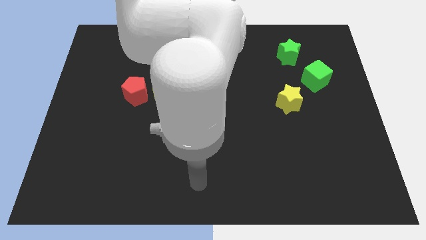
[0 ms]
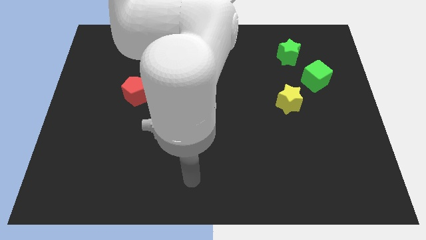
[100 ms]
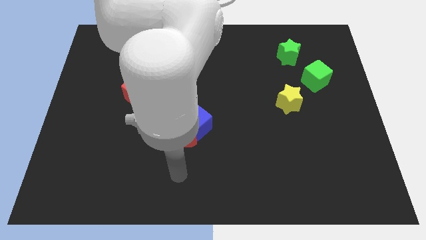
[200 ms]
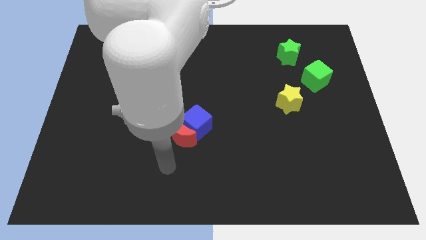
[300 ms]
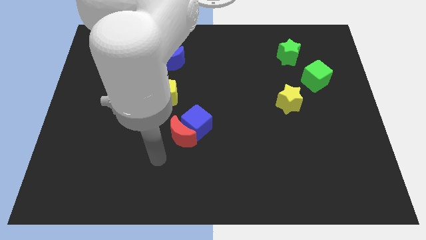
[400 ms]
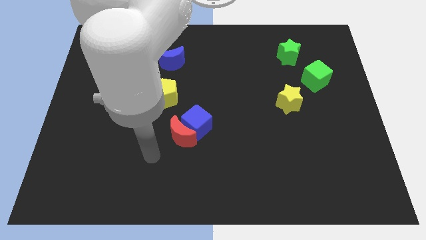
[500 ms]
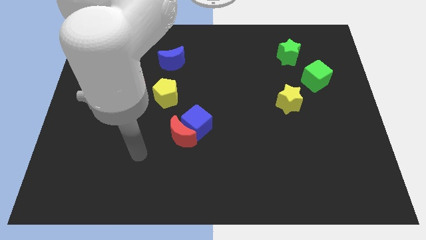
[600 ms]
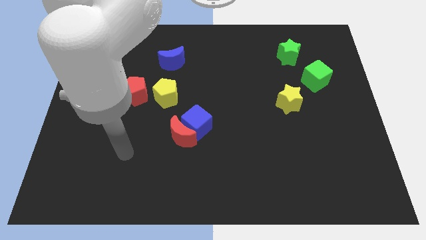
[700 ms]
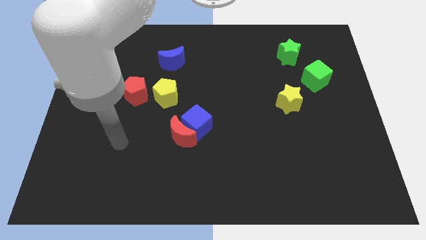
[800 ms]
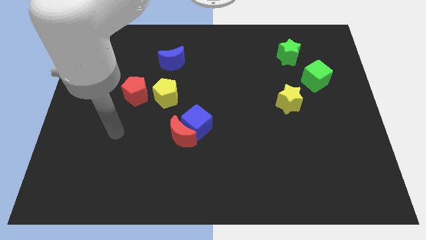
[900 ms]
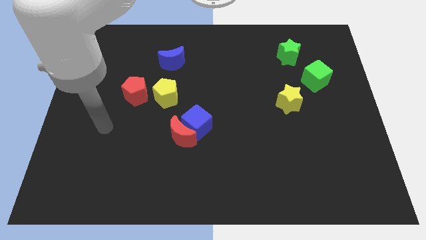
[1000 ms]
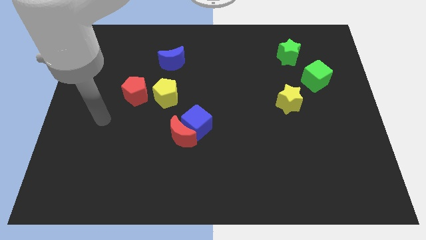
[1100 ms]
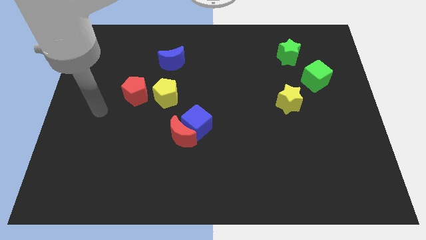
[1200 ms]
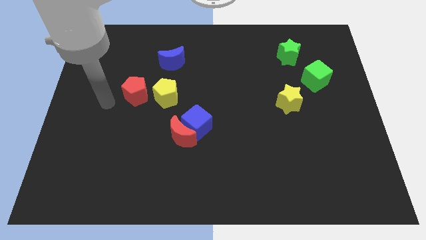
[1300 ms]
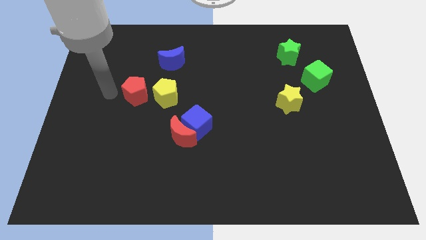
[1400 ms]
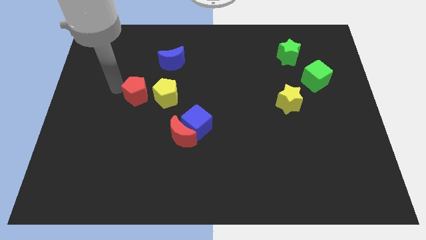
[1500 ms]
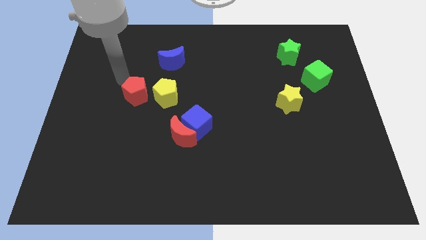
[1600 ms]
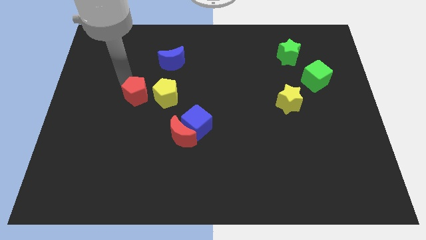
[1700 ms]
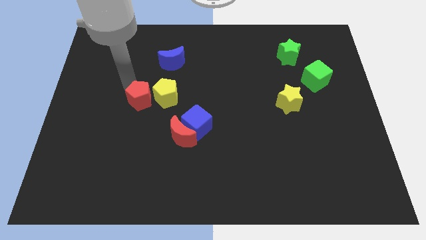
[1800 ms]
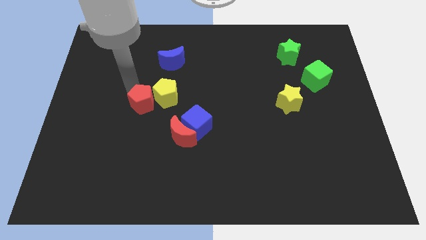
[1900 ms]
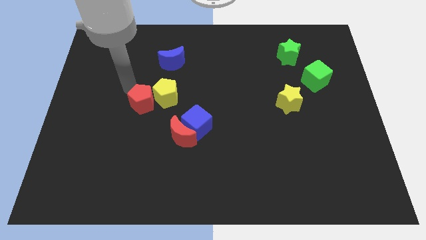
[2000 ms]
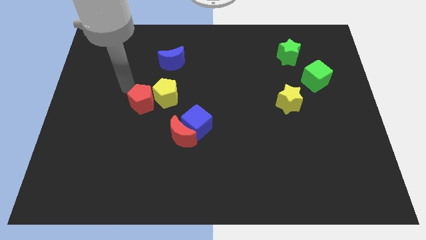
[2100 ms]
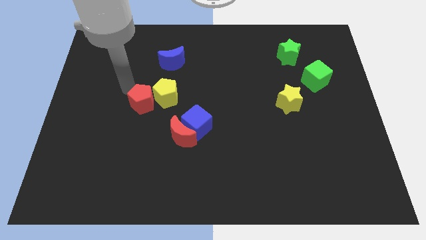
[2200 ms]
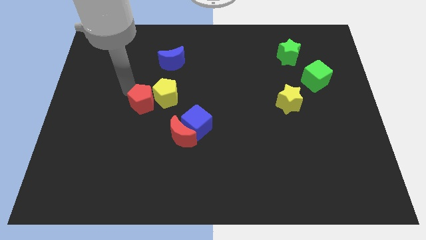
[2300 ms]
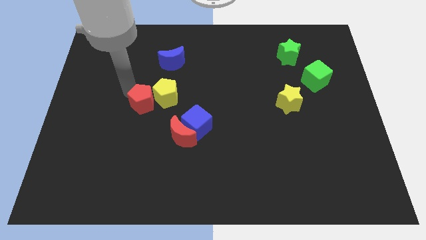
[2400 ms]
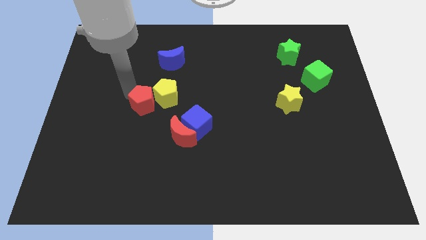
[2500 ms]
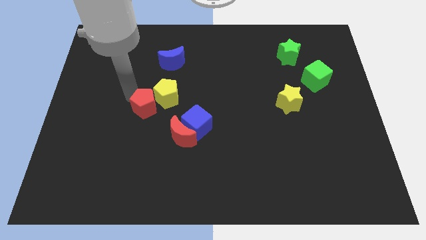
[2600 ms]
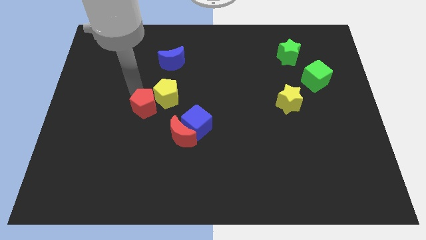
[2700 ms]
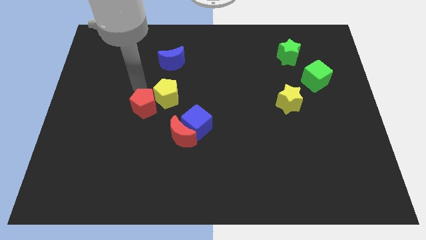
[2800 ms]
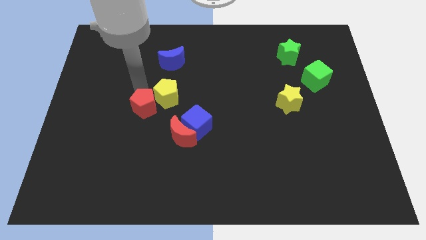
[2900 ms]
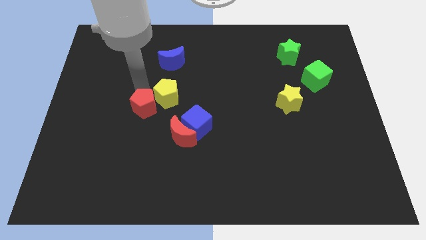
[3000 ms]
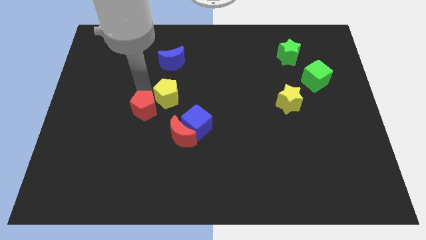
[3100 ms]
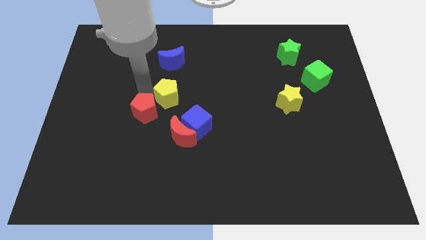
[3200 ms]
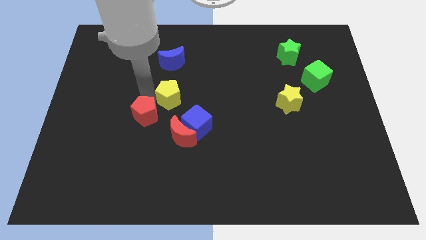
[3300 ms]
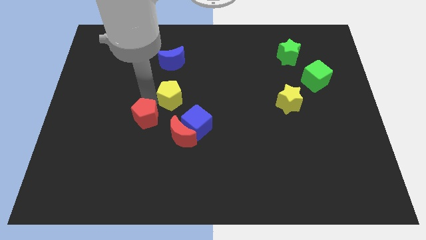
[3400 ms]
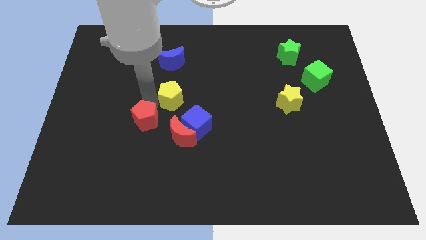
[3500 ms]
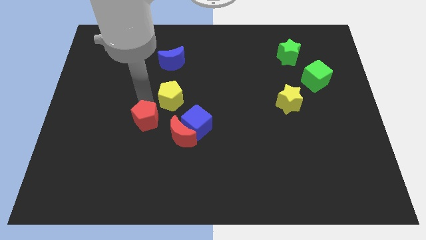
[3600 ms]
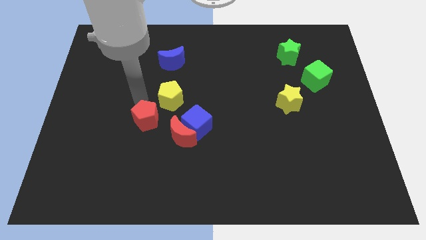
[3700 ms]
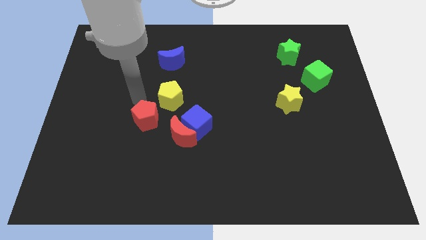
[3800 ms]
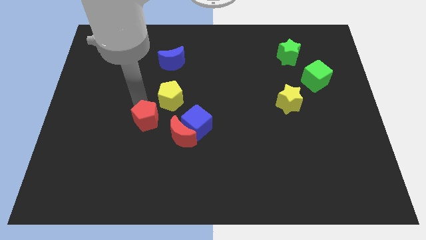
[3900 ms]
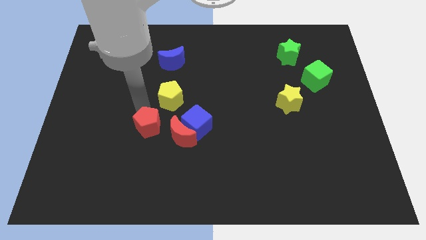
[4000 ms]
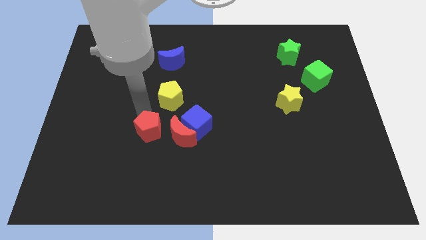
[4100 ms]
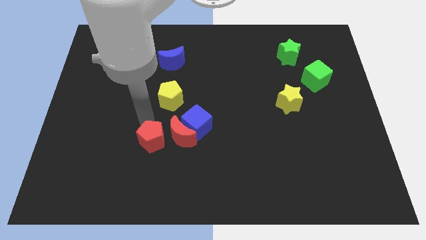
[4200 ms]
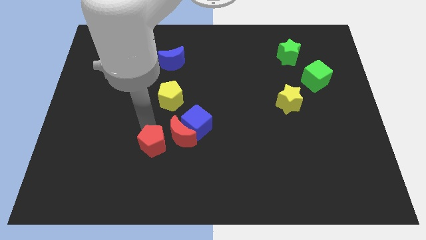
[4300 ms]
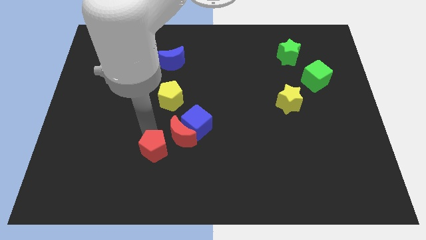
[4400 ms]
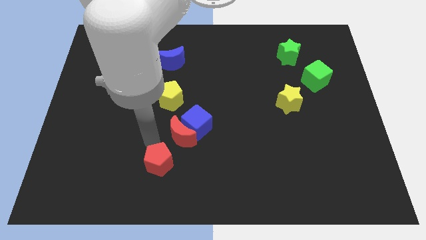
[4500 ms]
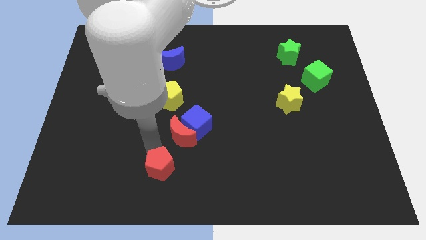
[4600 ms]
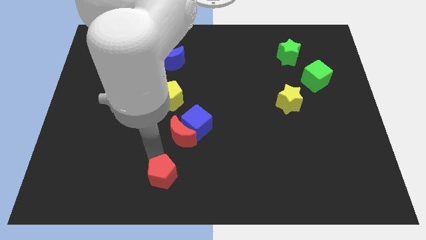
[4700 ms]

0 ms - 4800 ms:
move the red pentagon to the bottom

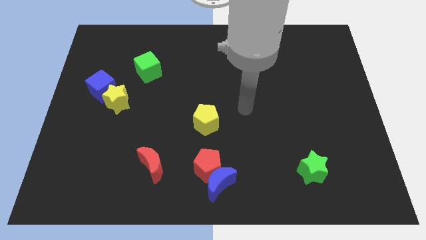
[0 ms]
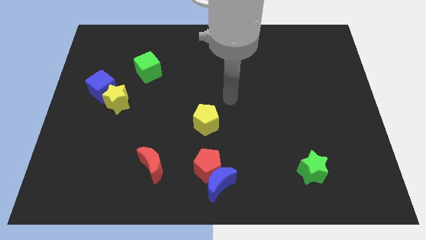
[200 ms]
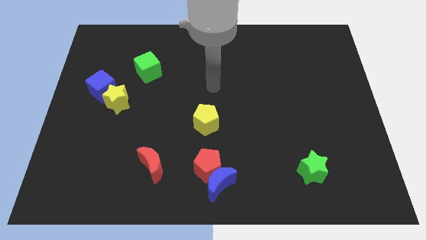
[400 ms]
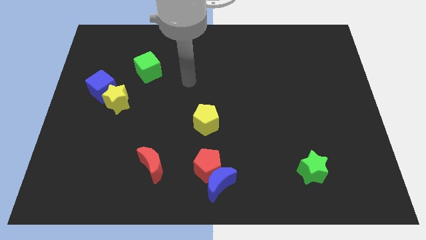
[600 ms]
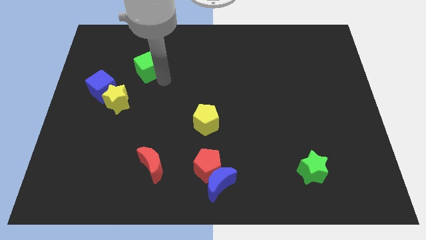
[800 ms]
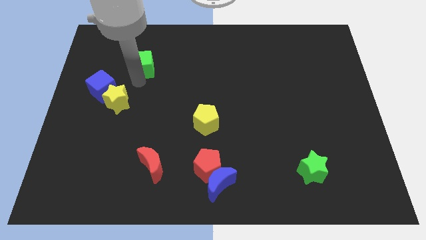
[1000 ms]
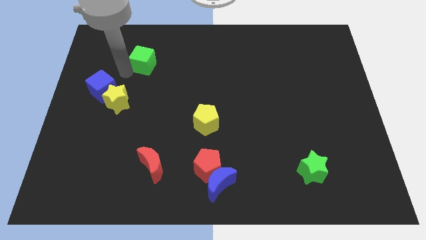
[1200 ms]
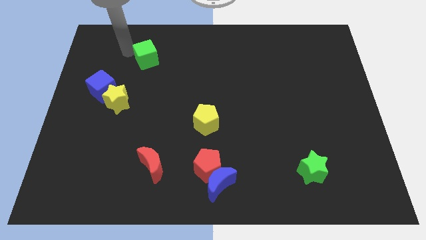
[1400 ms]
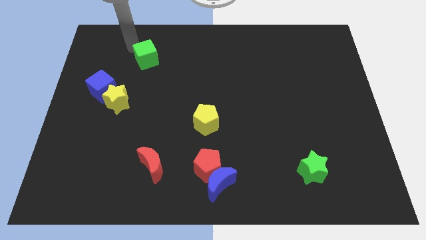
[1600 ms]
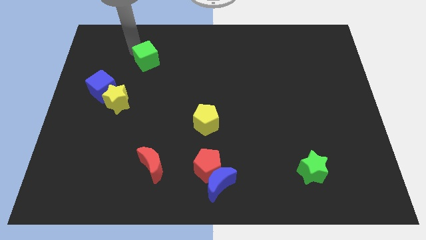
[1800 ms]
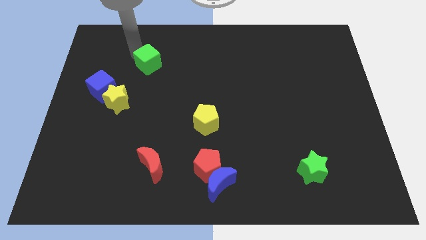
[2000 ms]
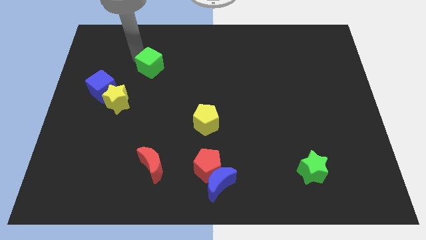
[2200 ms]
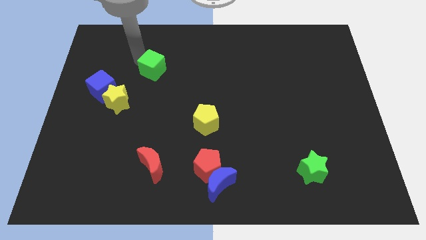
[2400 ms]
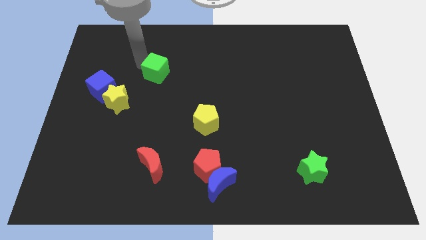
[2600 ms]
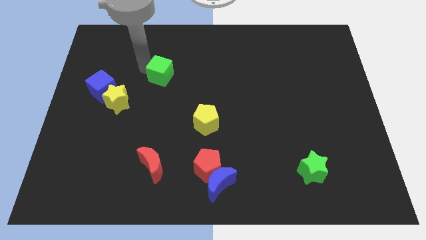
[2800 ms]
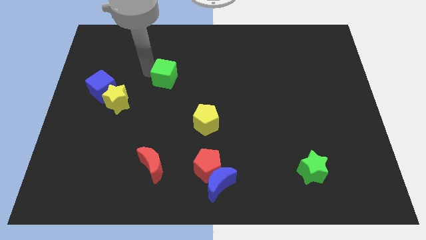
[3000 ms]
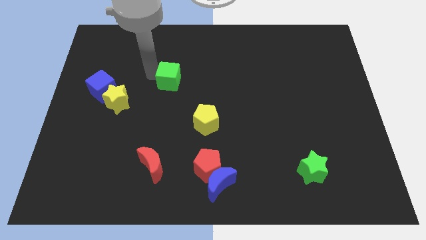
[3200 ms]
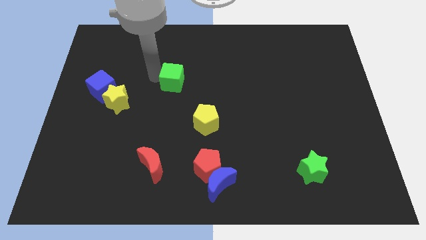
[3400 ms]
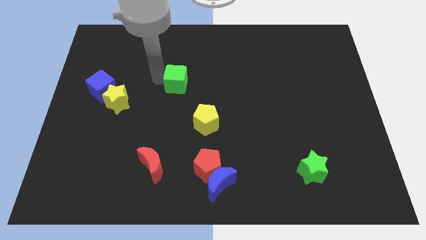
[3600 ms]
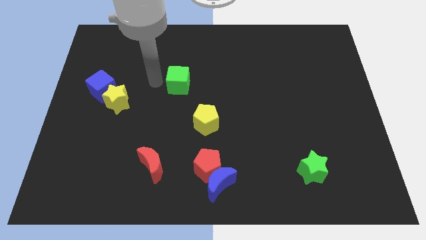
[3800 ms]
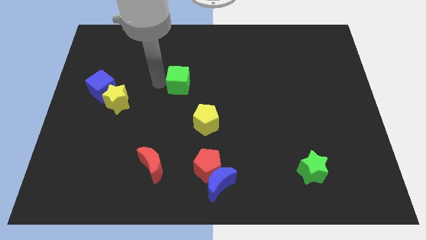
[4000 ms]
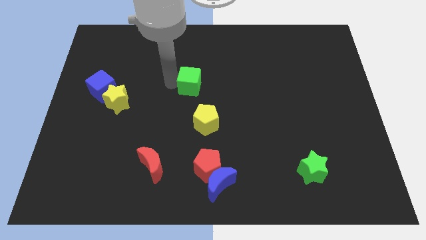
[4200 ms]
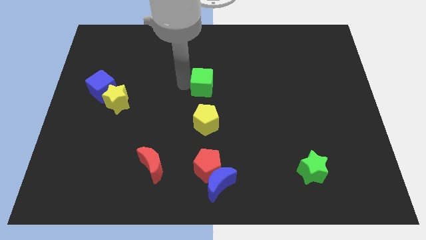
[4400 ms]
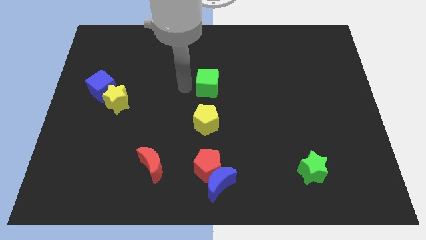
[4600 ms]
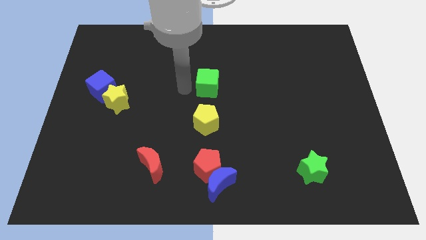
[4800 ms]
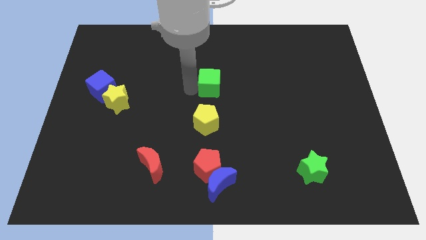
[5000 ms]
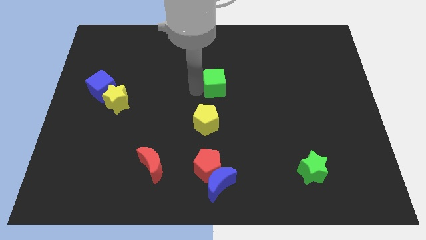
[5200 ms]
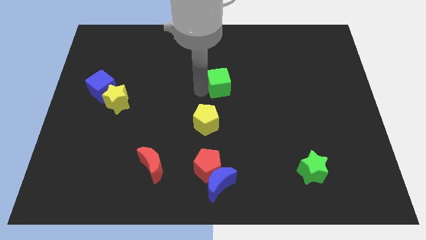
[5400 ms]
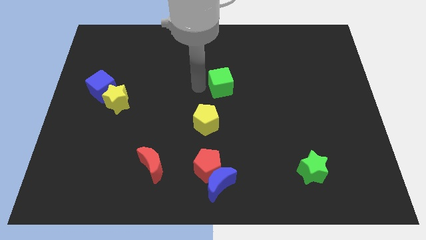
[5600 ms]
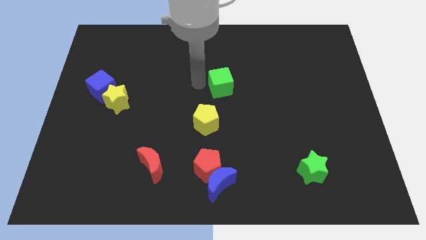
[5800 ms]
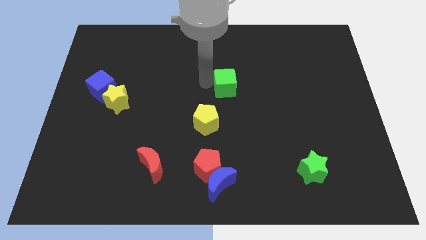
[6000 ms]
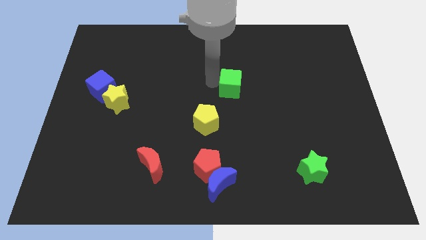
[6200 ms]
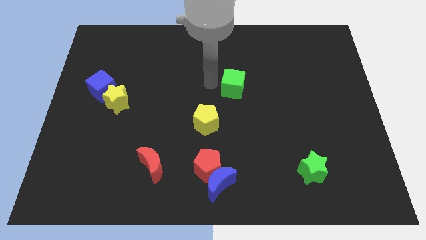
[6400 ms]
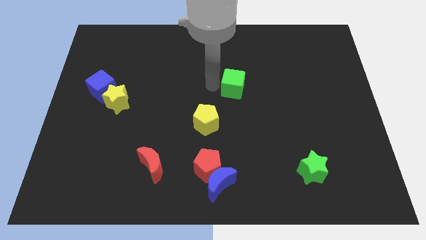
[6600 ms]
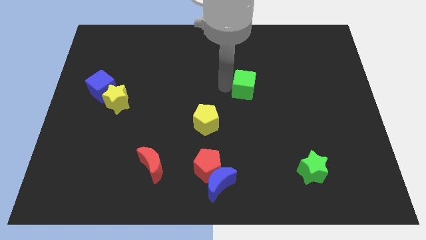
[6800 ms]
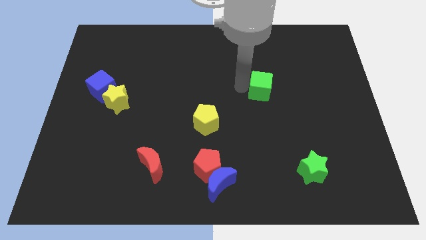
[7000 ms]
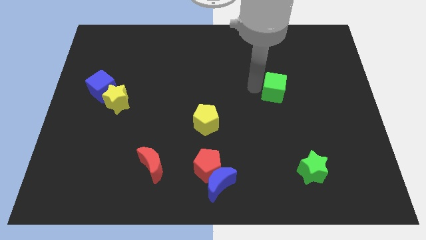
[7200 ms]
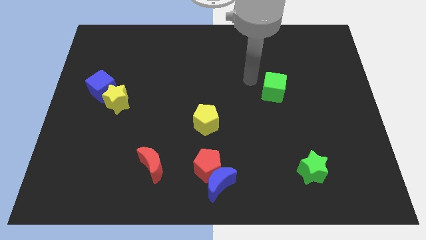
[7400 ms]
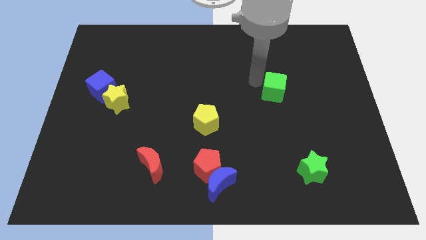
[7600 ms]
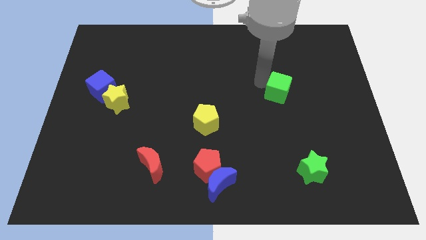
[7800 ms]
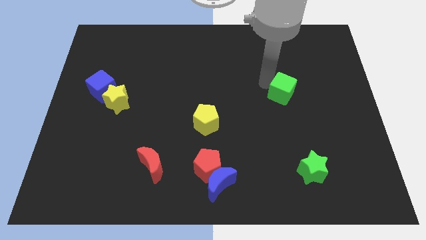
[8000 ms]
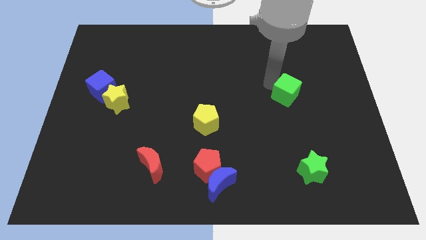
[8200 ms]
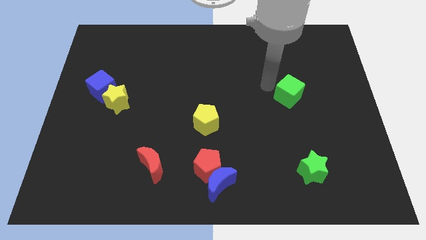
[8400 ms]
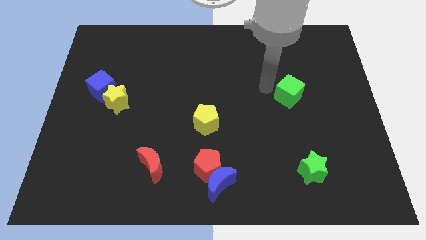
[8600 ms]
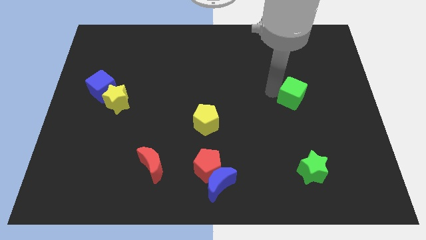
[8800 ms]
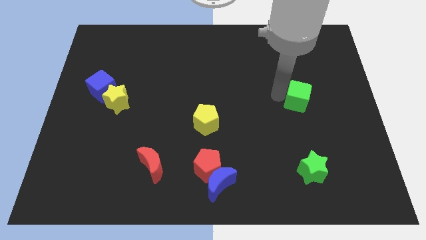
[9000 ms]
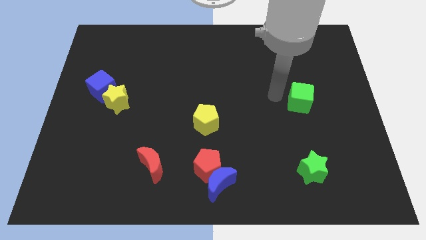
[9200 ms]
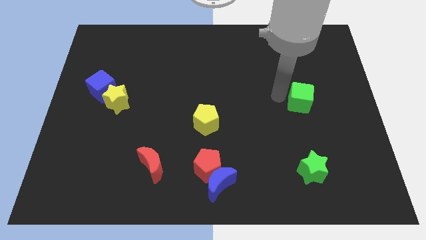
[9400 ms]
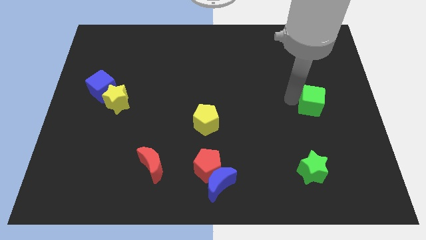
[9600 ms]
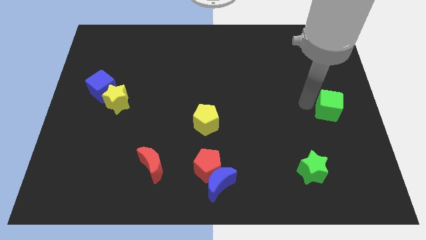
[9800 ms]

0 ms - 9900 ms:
put the green cube to the right side of the board
